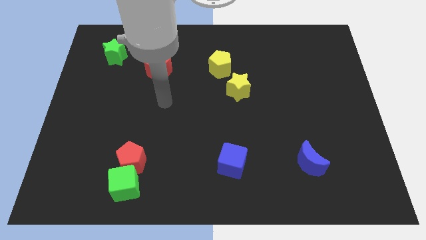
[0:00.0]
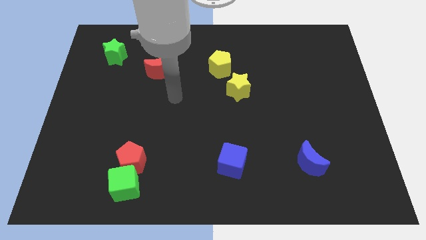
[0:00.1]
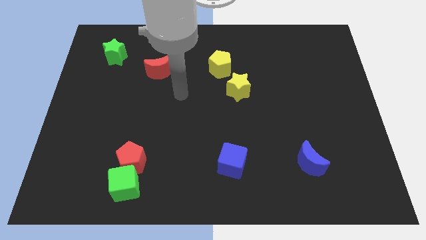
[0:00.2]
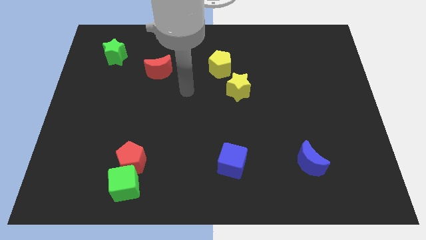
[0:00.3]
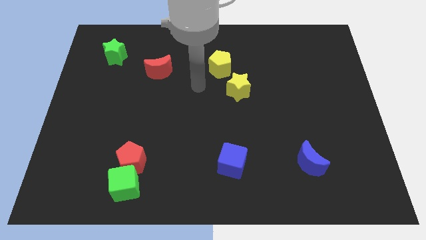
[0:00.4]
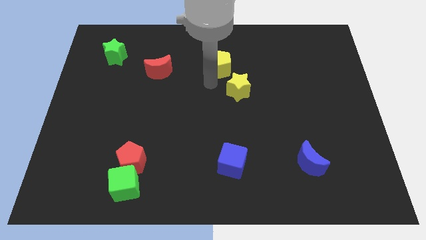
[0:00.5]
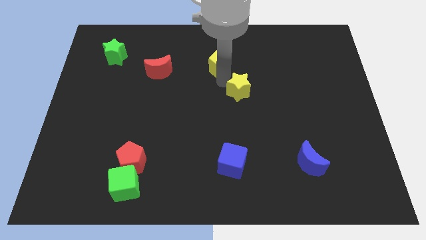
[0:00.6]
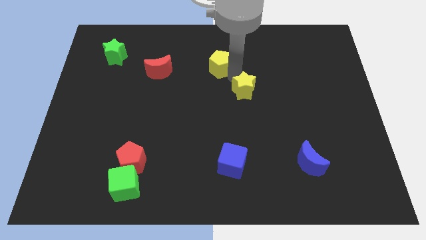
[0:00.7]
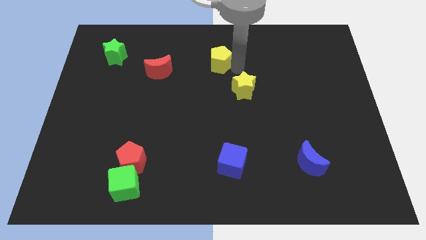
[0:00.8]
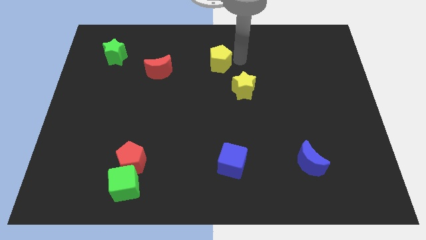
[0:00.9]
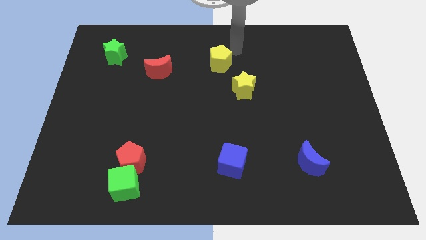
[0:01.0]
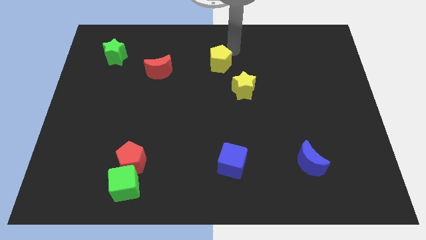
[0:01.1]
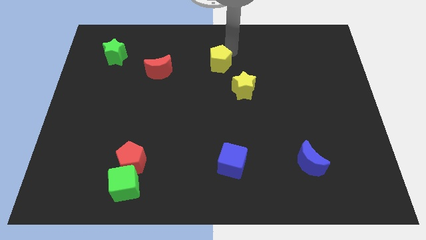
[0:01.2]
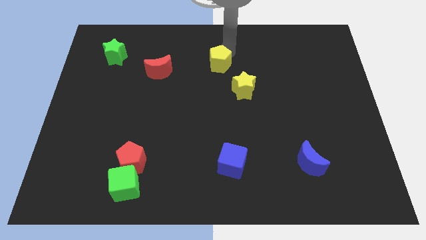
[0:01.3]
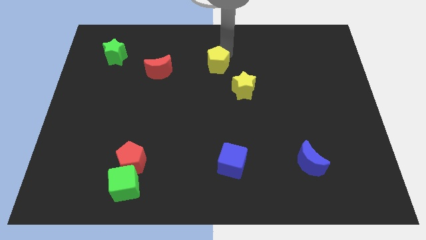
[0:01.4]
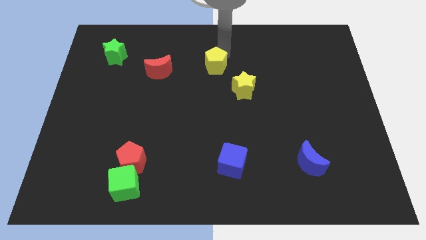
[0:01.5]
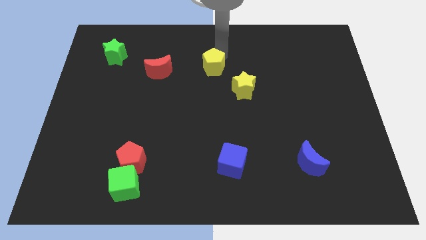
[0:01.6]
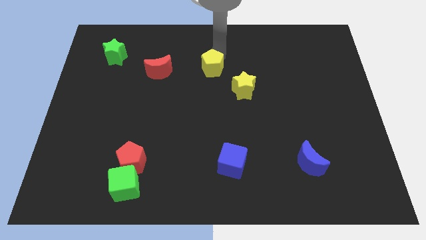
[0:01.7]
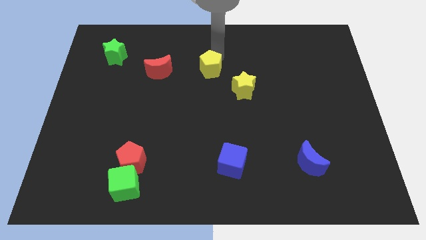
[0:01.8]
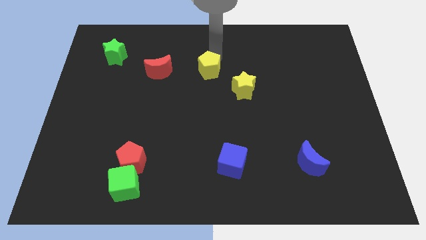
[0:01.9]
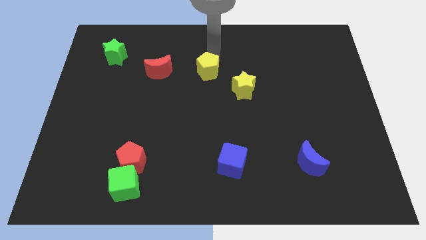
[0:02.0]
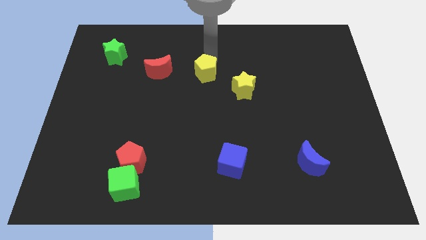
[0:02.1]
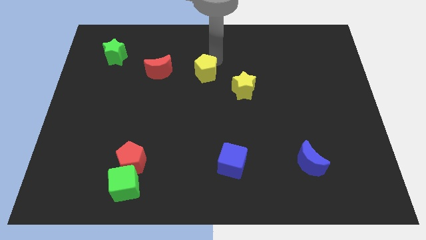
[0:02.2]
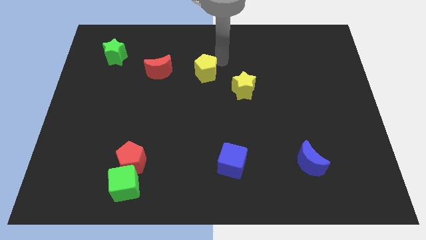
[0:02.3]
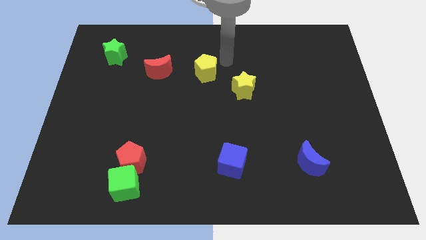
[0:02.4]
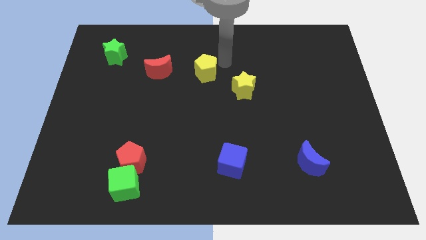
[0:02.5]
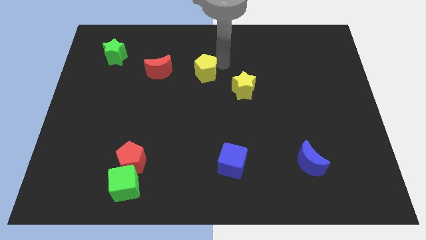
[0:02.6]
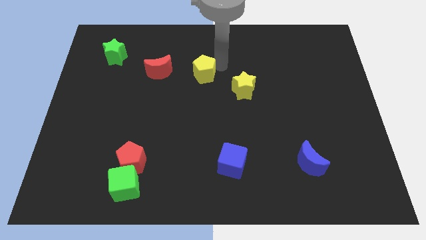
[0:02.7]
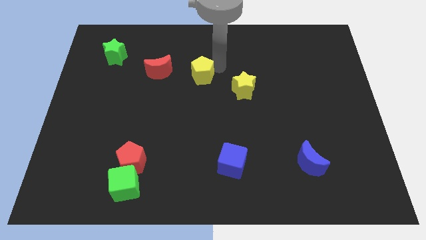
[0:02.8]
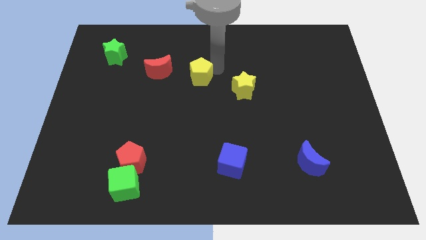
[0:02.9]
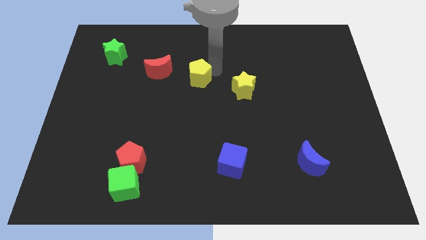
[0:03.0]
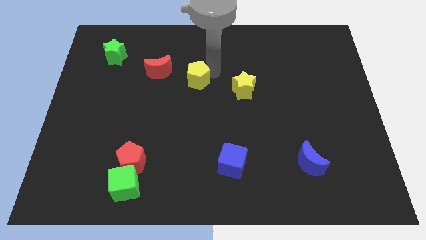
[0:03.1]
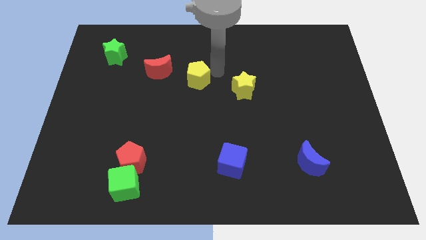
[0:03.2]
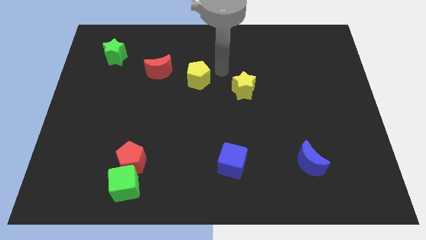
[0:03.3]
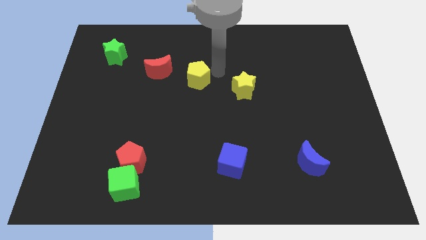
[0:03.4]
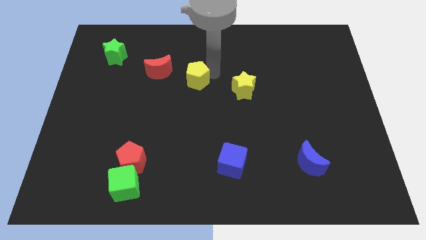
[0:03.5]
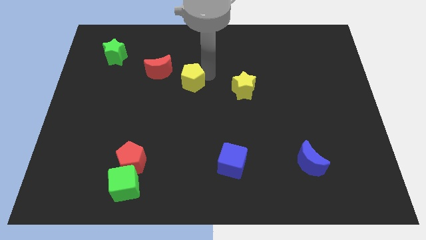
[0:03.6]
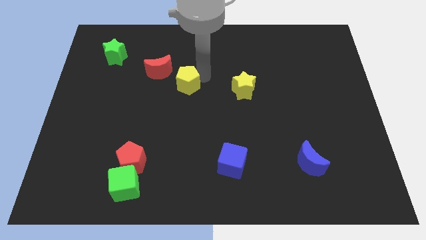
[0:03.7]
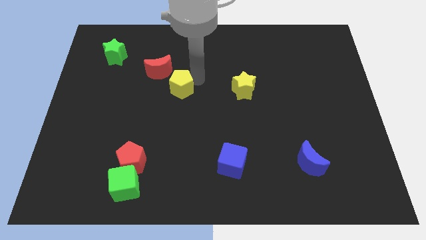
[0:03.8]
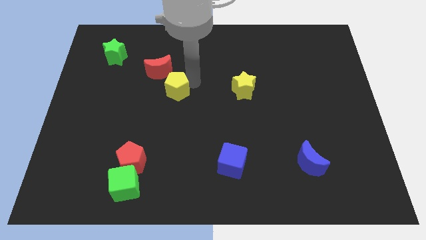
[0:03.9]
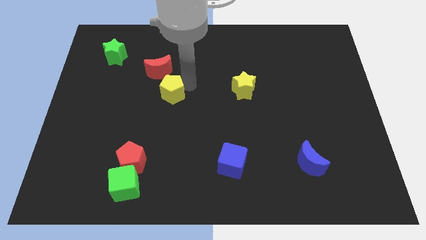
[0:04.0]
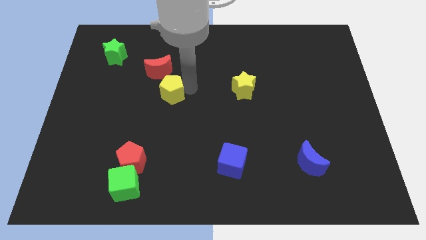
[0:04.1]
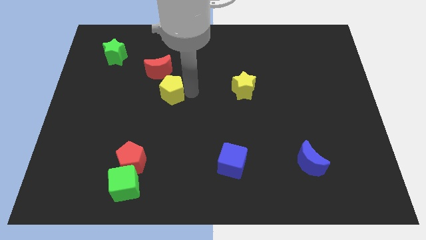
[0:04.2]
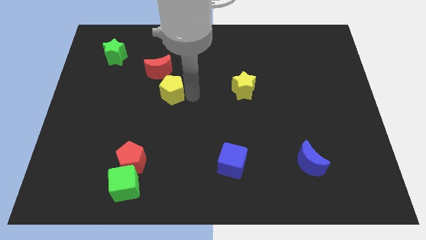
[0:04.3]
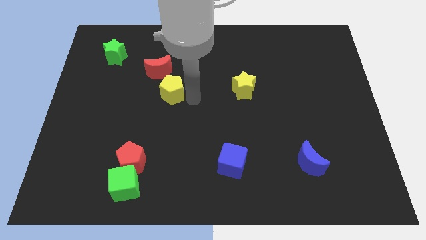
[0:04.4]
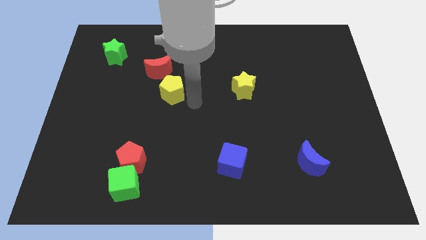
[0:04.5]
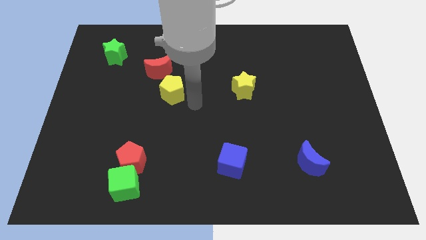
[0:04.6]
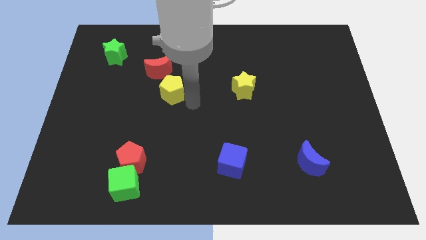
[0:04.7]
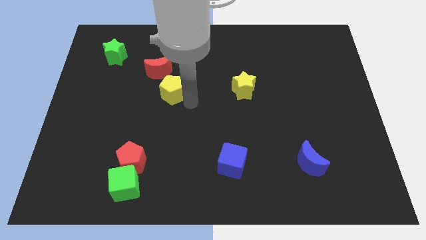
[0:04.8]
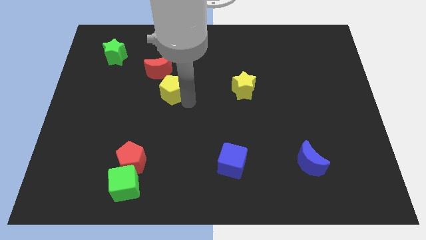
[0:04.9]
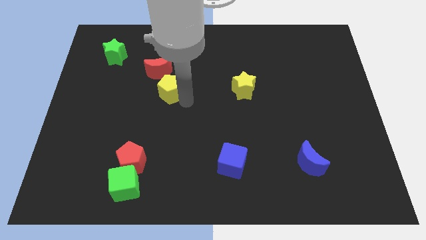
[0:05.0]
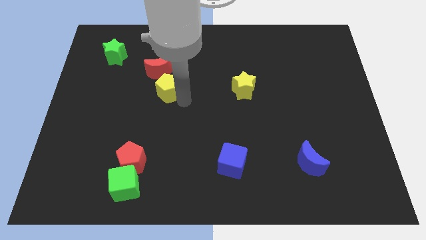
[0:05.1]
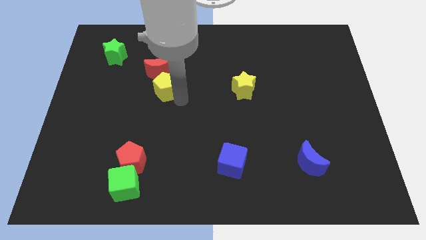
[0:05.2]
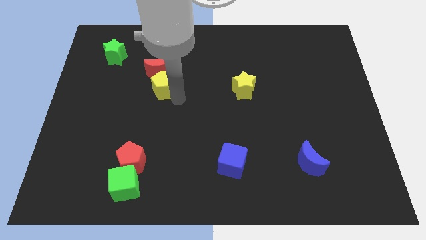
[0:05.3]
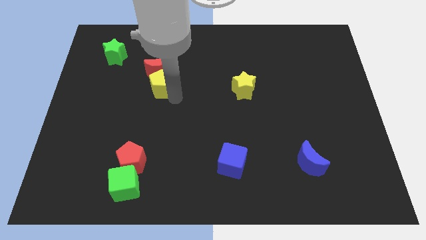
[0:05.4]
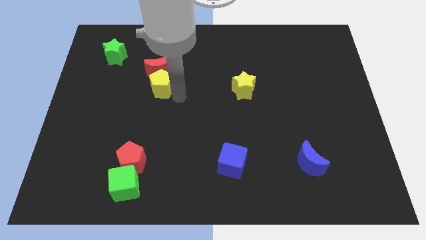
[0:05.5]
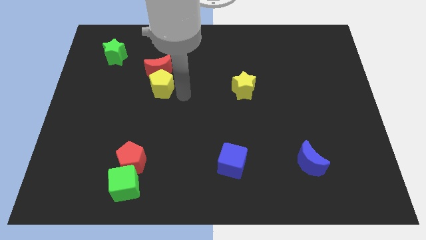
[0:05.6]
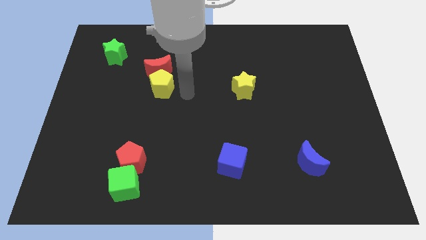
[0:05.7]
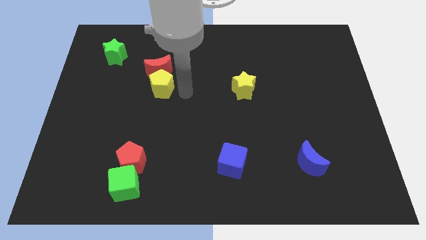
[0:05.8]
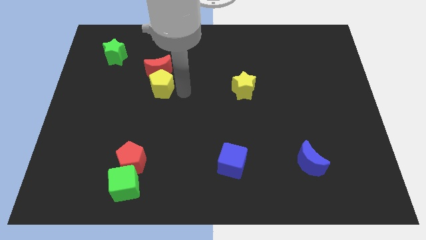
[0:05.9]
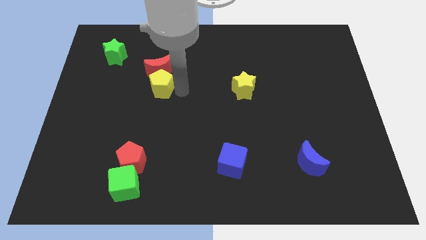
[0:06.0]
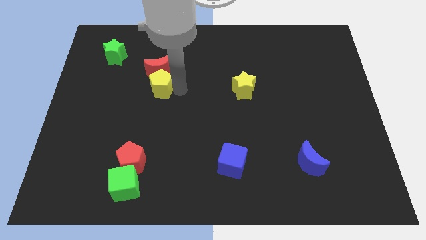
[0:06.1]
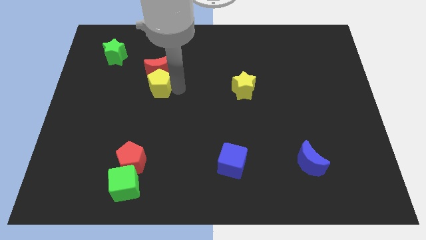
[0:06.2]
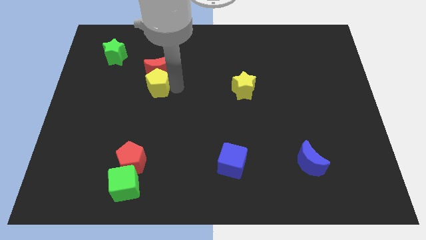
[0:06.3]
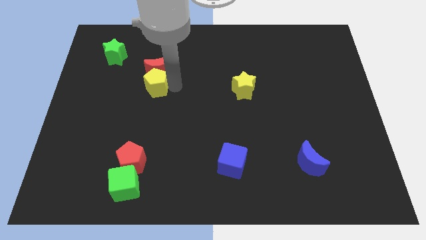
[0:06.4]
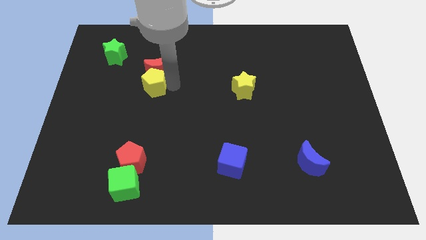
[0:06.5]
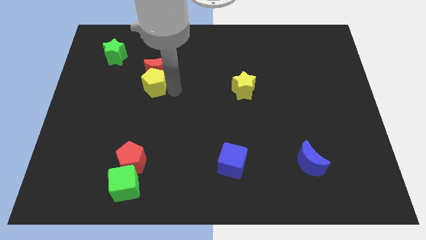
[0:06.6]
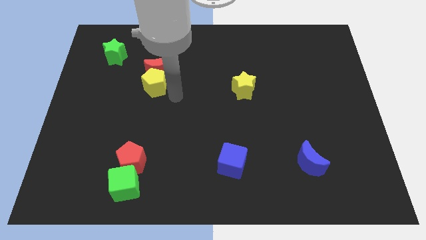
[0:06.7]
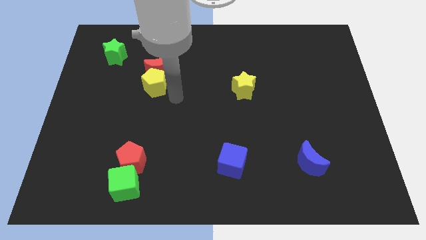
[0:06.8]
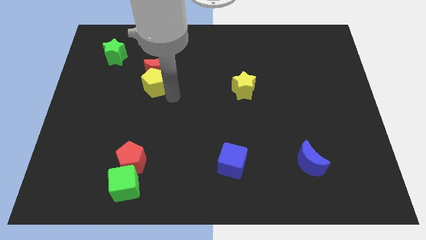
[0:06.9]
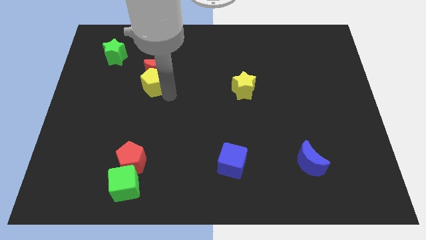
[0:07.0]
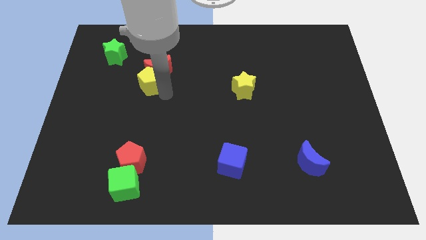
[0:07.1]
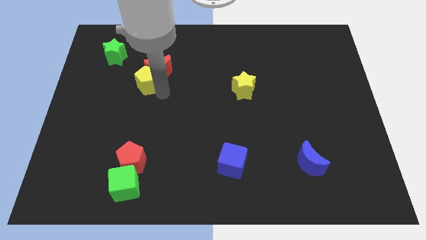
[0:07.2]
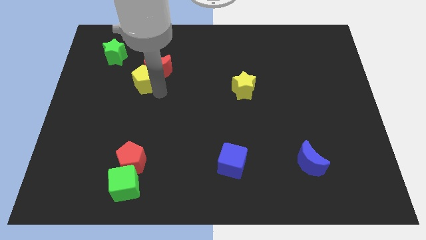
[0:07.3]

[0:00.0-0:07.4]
move the yellow pentagon to the bottom right of the green star
